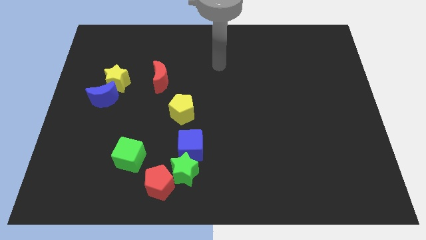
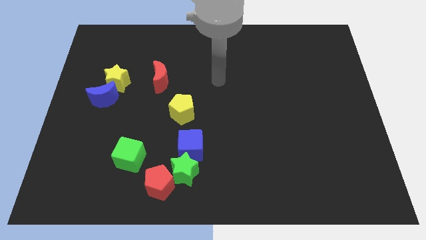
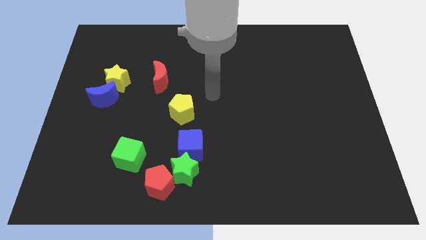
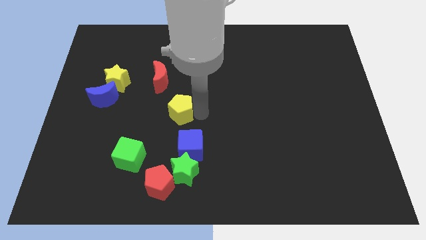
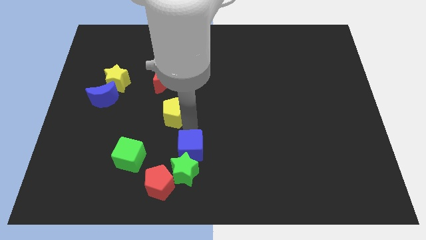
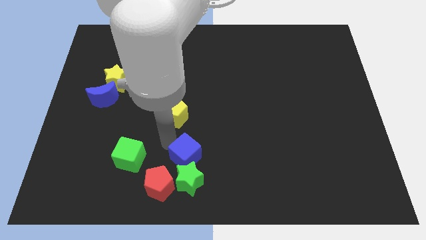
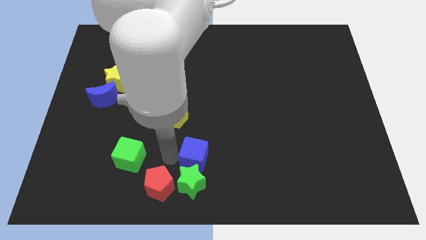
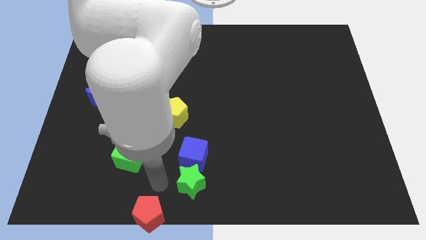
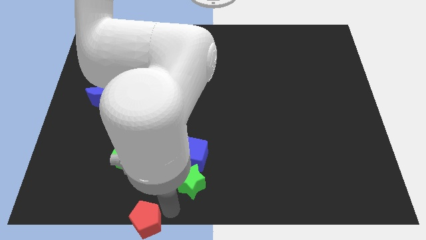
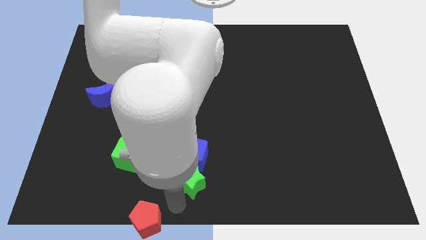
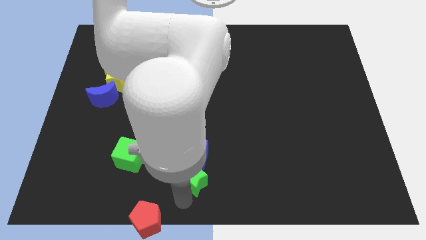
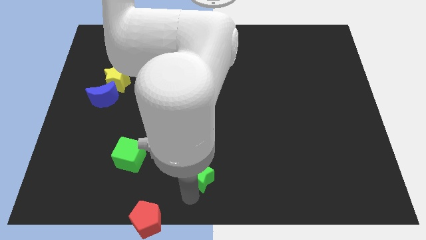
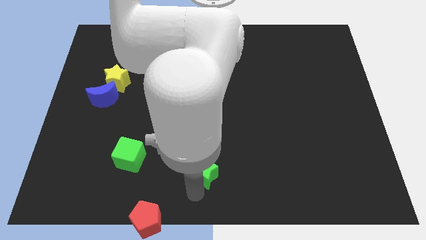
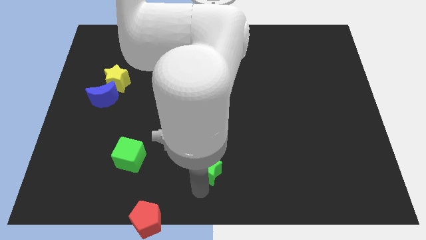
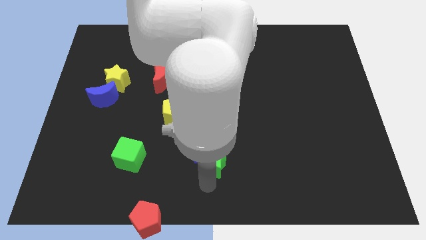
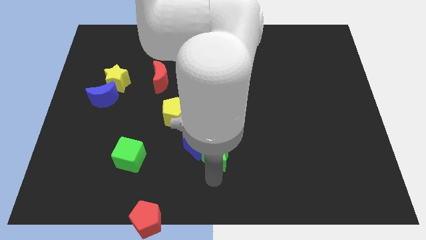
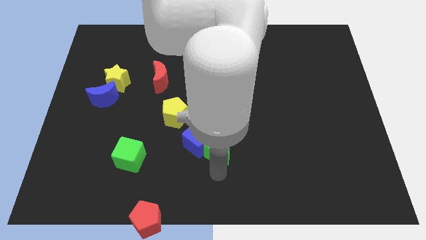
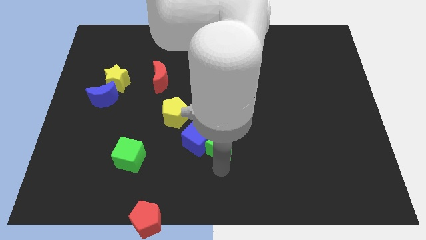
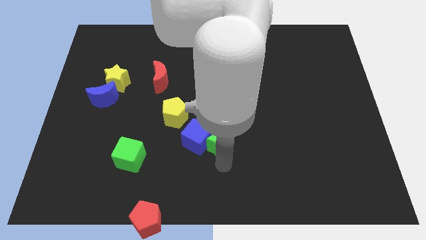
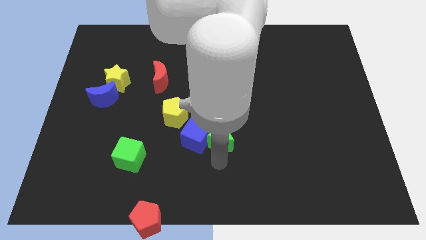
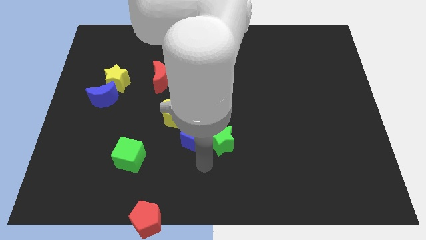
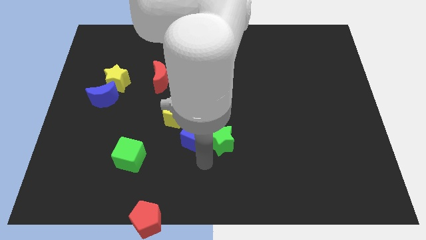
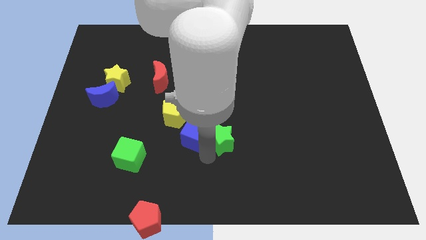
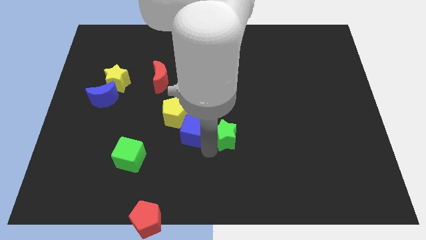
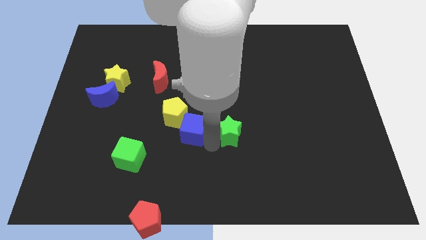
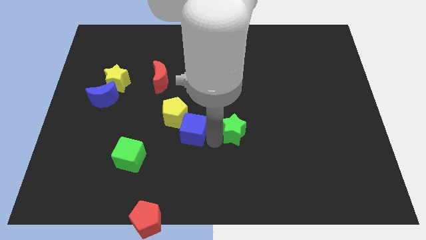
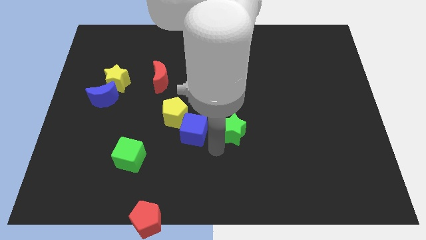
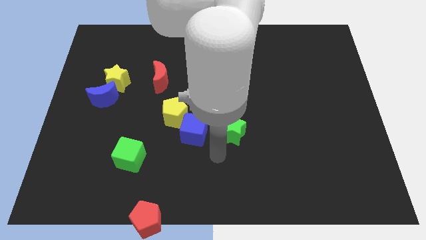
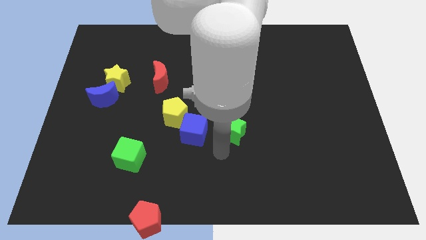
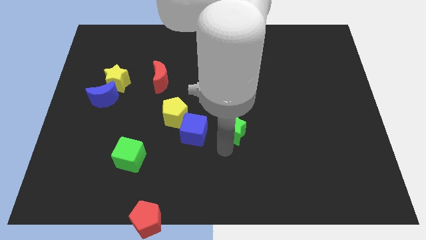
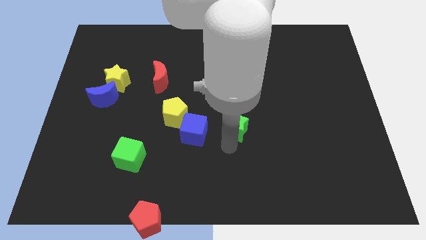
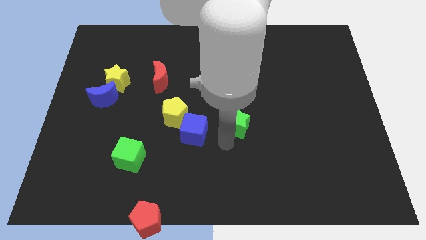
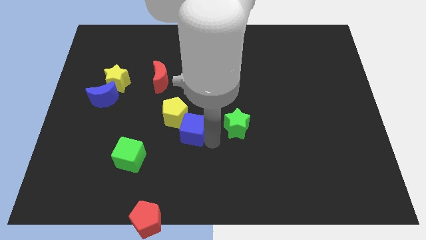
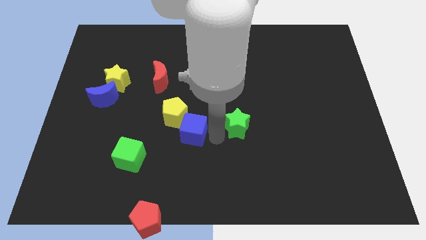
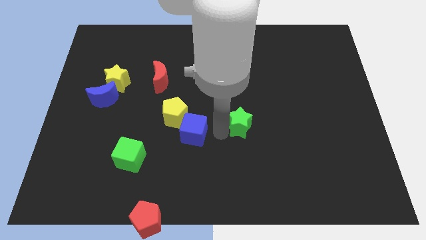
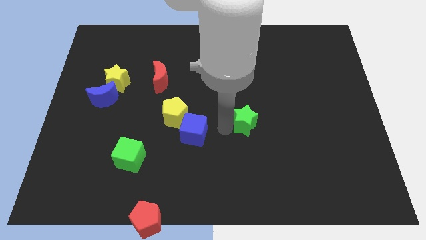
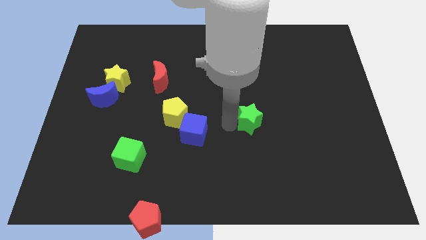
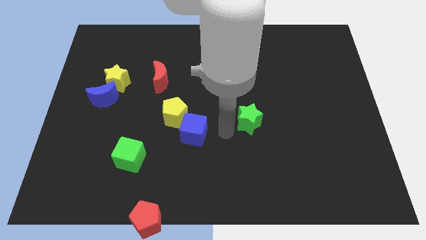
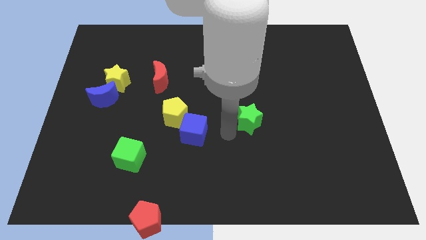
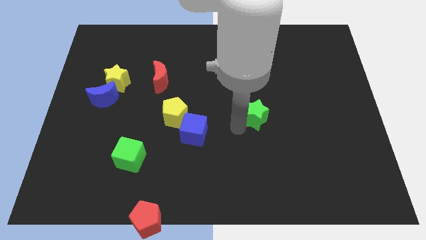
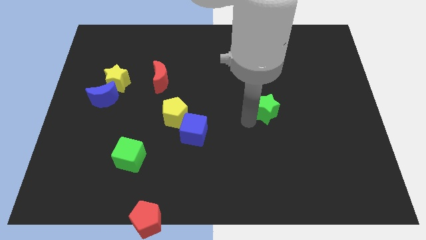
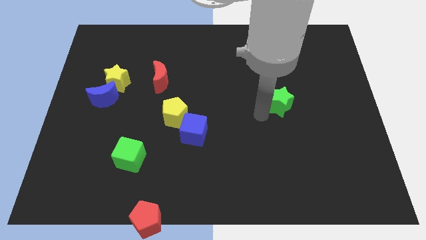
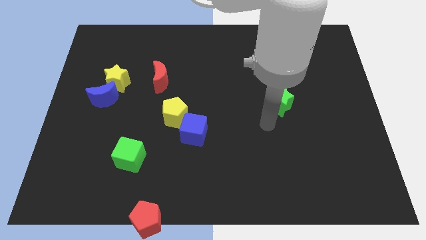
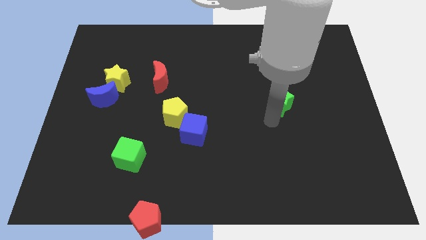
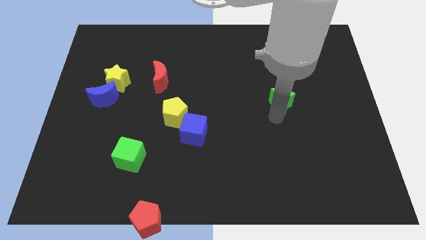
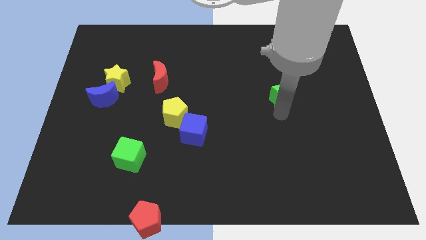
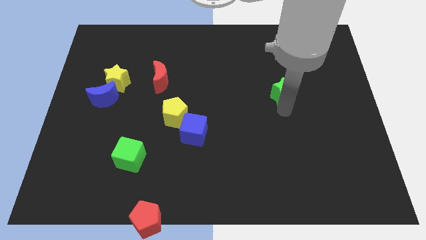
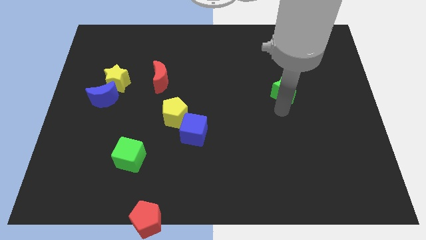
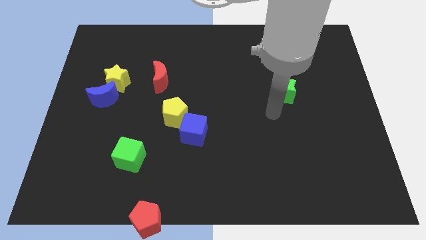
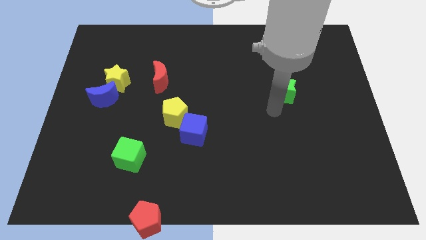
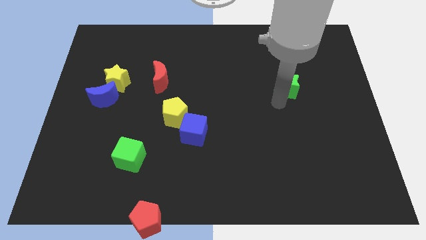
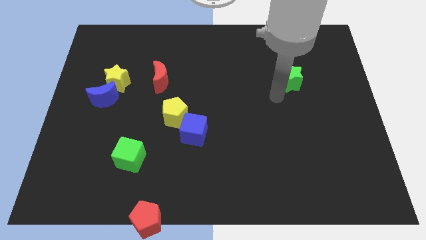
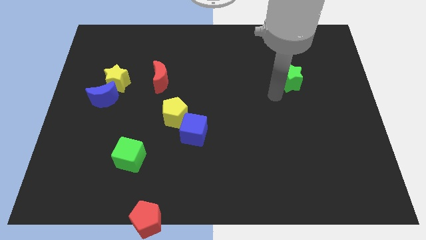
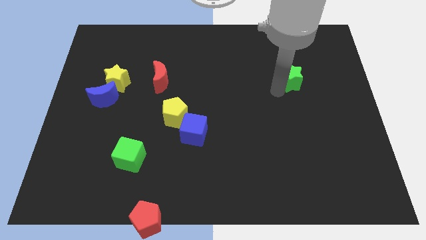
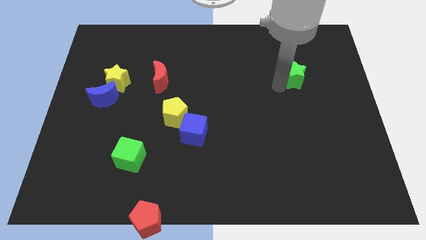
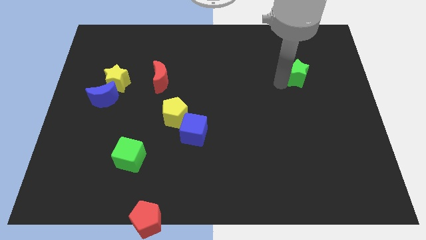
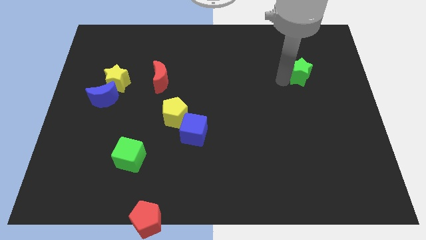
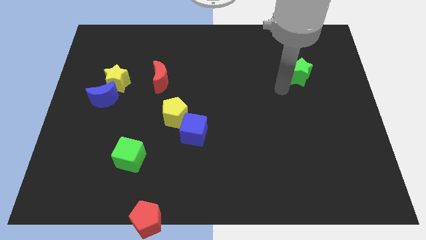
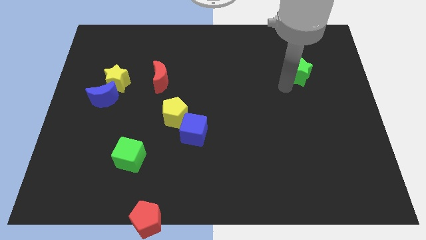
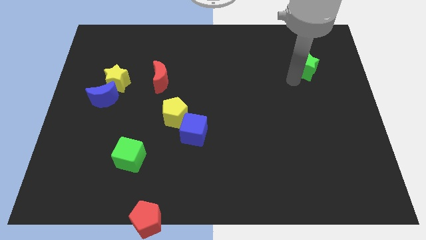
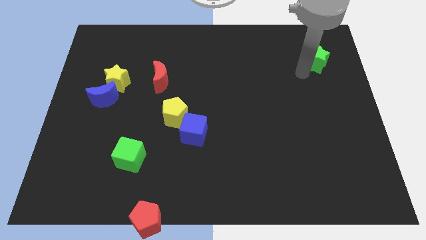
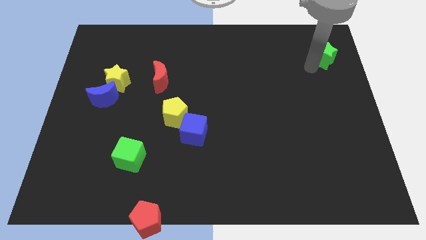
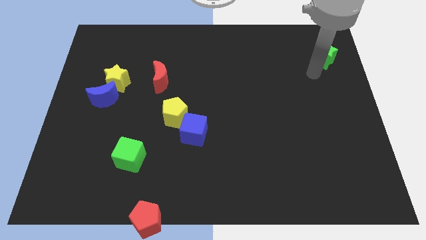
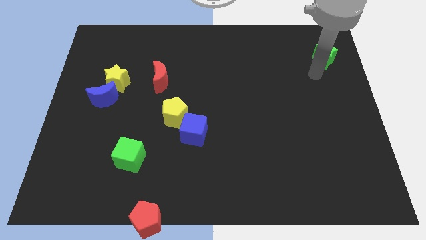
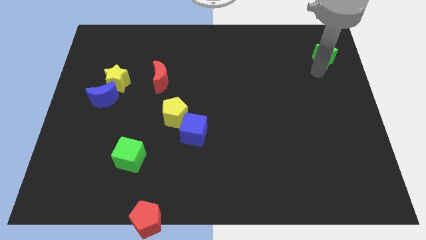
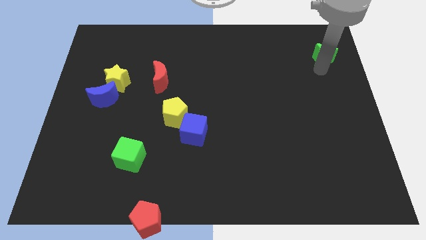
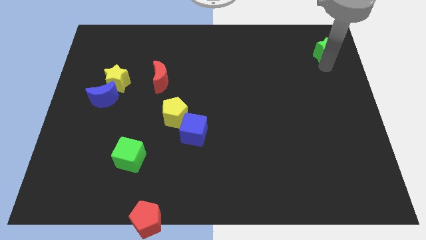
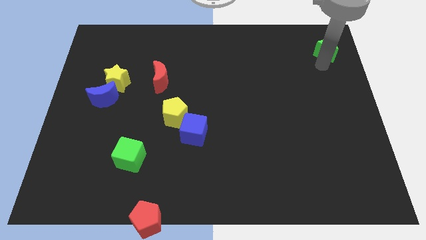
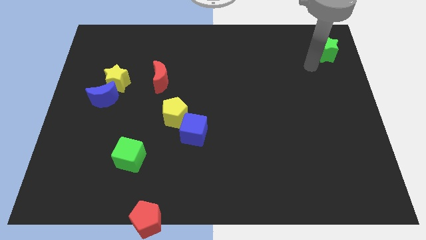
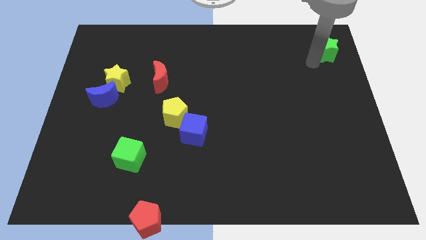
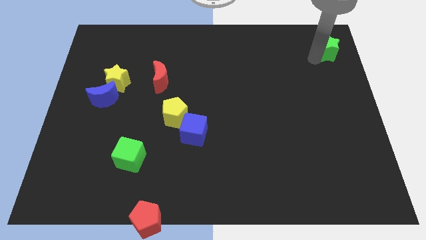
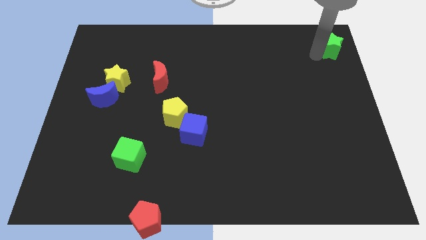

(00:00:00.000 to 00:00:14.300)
slide the green star to the top right of the board
